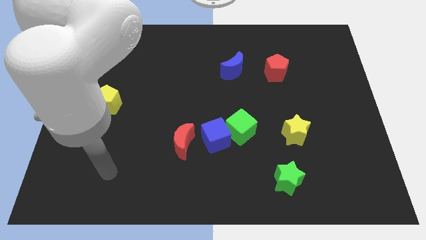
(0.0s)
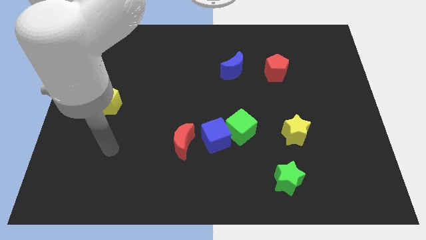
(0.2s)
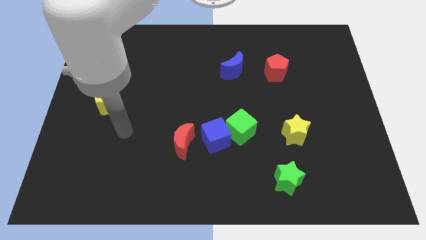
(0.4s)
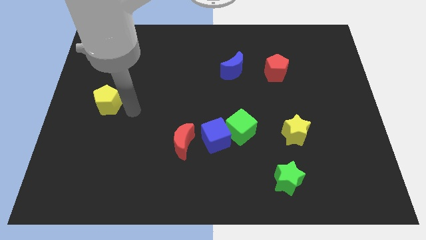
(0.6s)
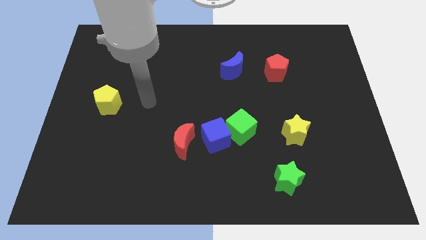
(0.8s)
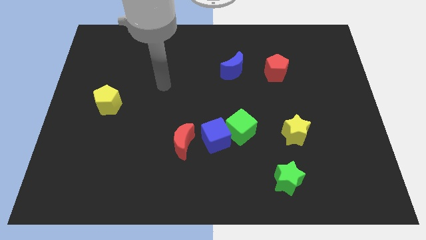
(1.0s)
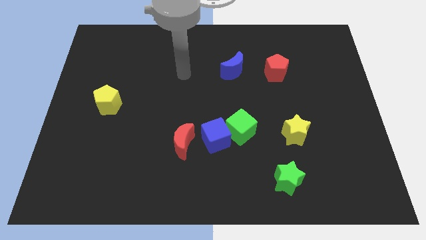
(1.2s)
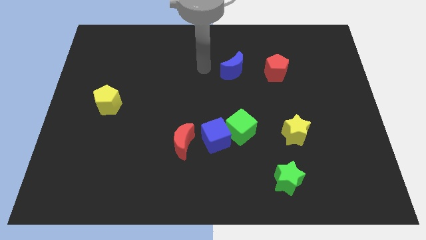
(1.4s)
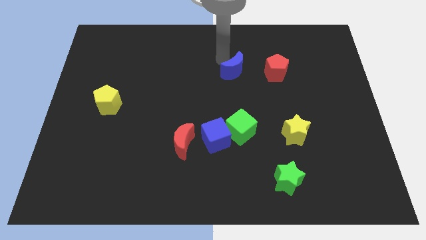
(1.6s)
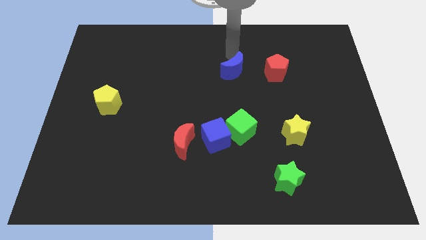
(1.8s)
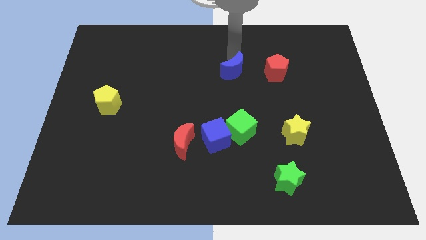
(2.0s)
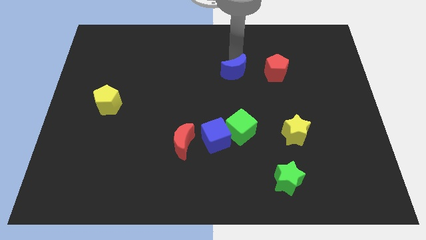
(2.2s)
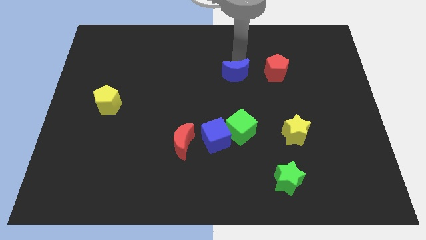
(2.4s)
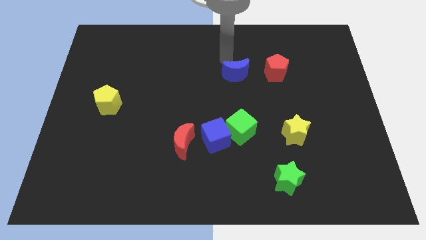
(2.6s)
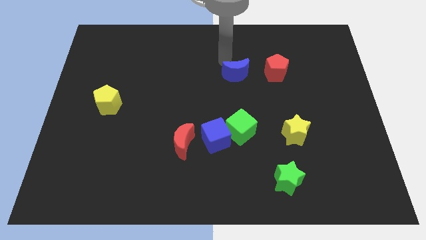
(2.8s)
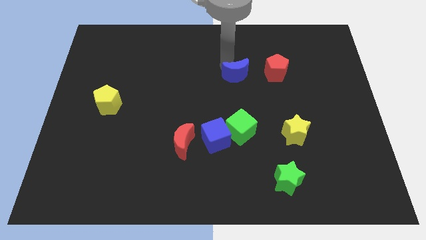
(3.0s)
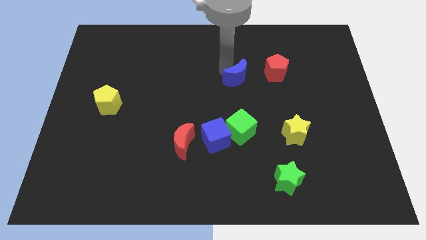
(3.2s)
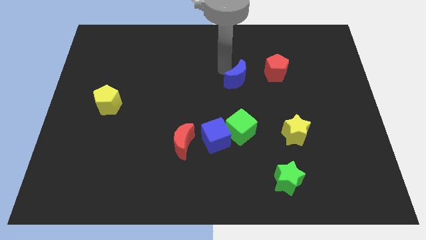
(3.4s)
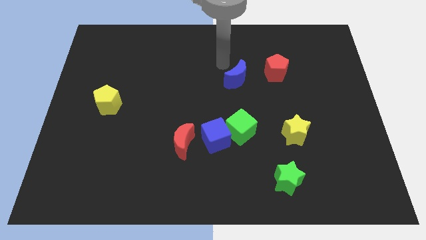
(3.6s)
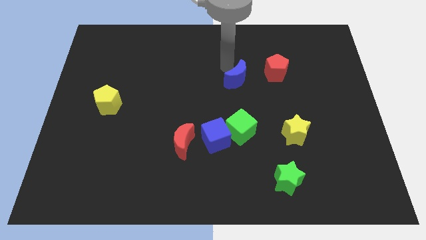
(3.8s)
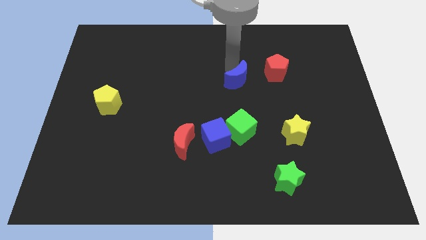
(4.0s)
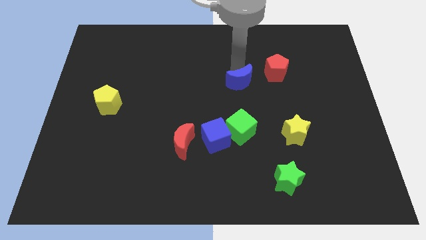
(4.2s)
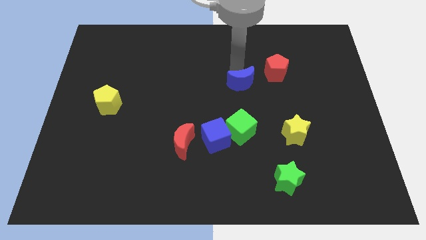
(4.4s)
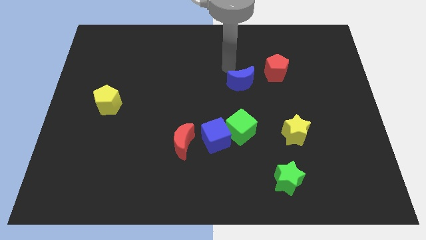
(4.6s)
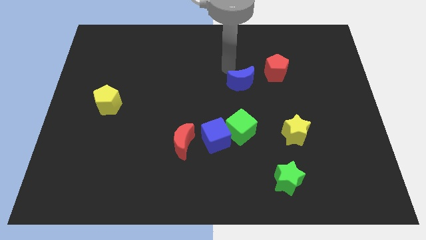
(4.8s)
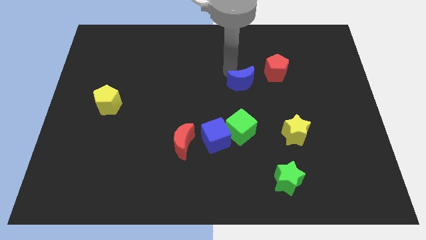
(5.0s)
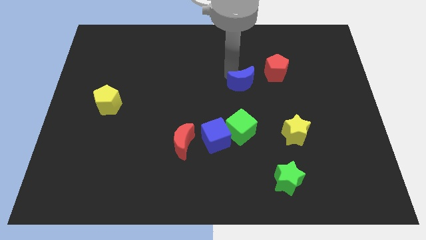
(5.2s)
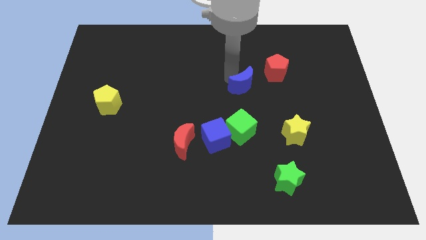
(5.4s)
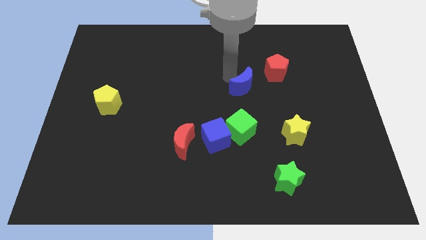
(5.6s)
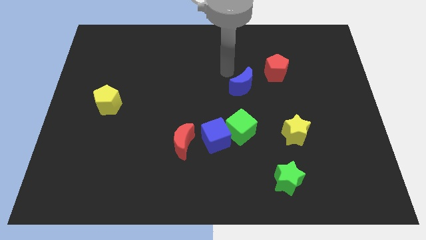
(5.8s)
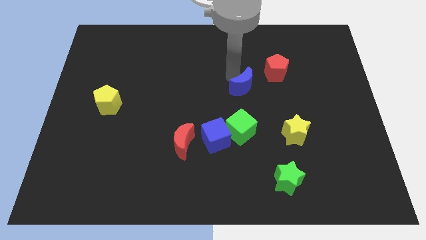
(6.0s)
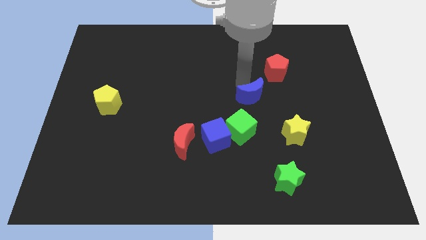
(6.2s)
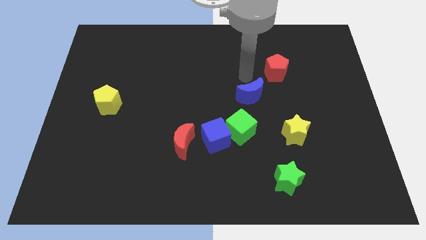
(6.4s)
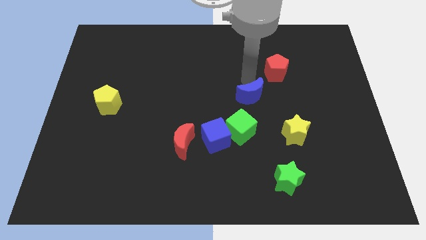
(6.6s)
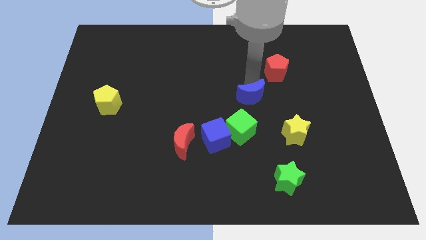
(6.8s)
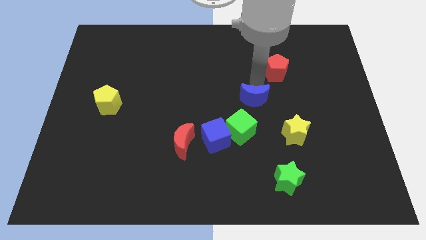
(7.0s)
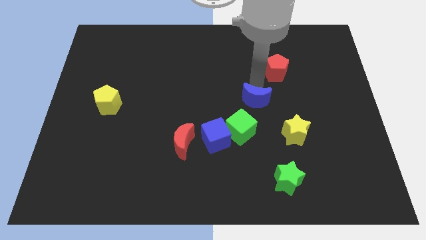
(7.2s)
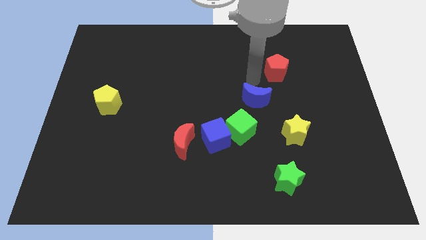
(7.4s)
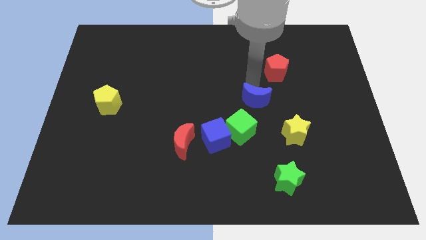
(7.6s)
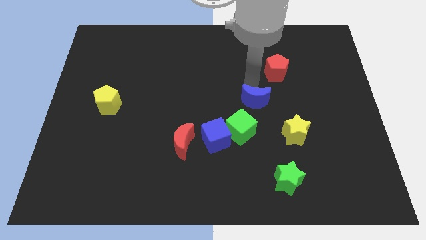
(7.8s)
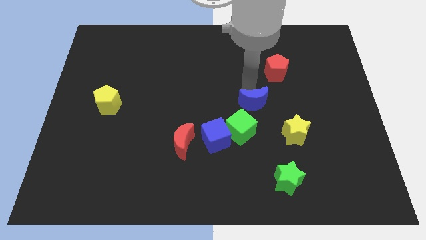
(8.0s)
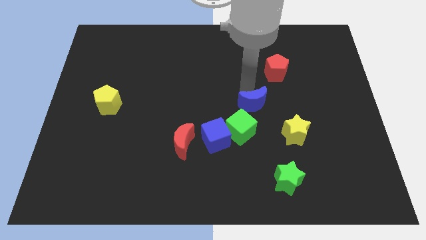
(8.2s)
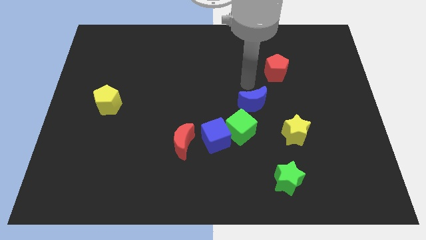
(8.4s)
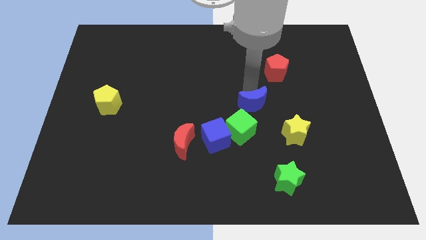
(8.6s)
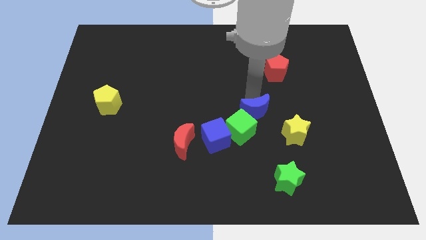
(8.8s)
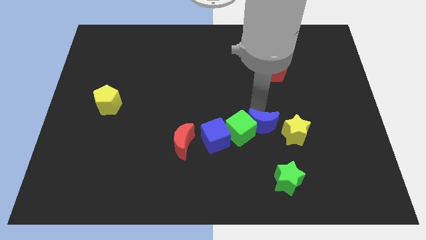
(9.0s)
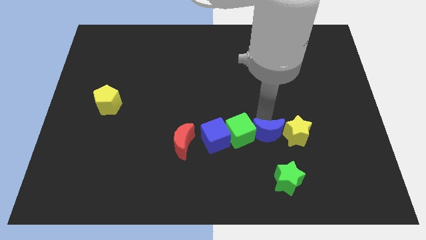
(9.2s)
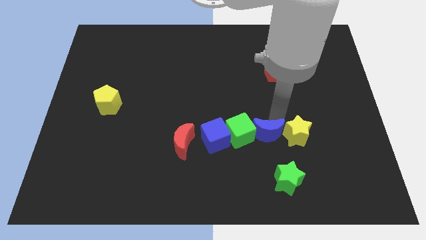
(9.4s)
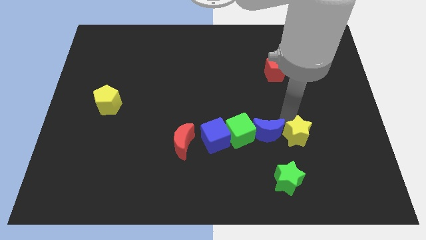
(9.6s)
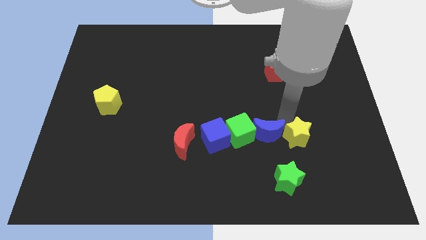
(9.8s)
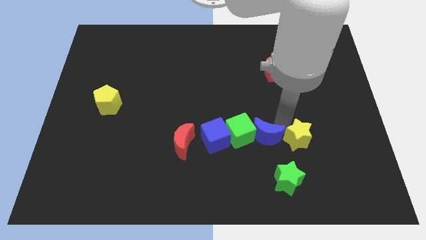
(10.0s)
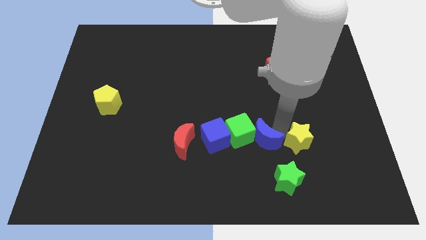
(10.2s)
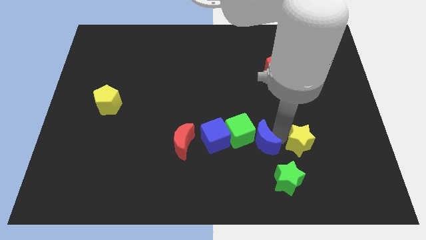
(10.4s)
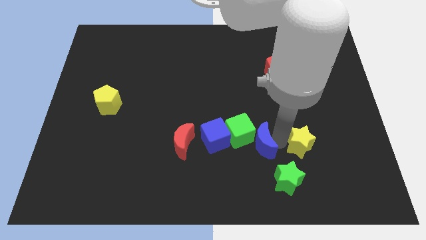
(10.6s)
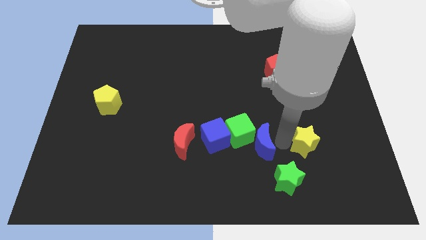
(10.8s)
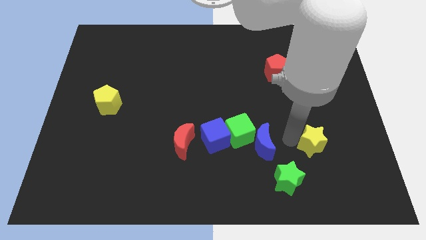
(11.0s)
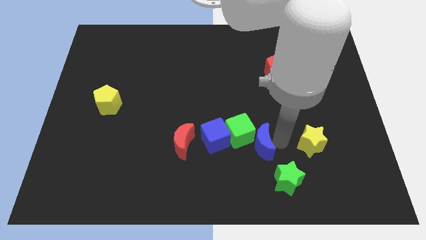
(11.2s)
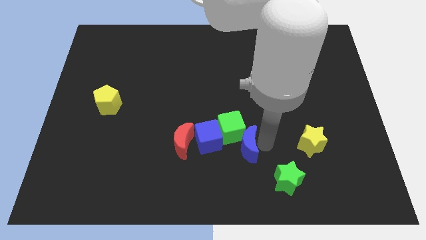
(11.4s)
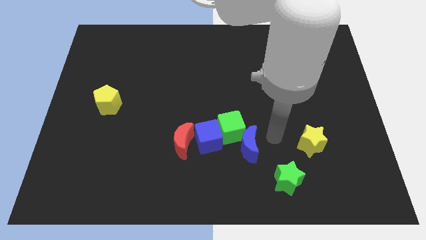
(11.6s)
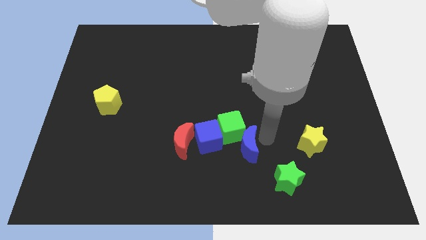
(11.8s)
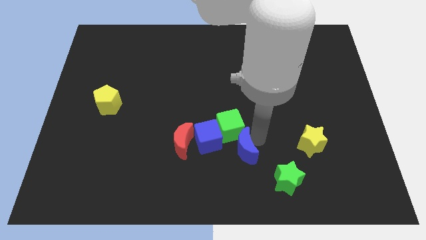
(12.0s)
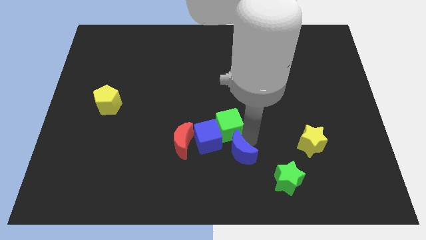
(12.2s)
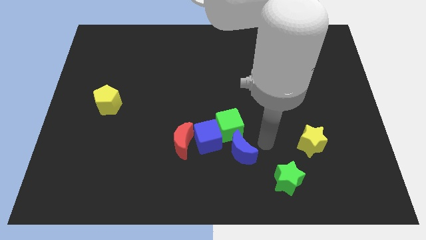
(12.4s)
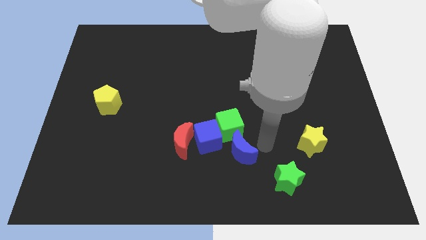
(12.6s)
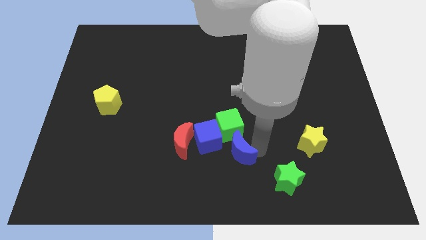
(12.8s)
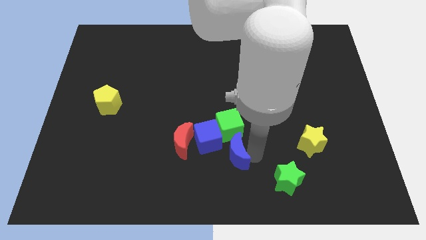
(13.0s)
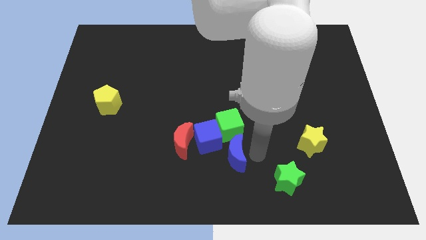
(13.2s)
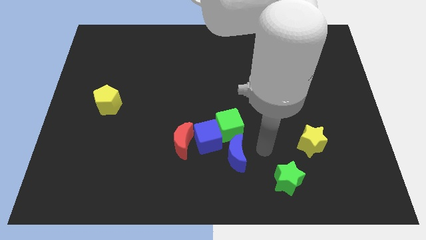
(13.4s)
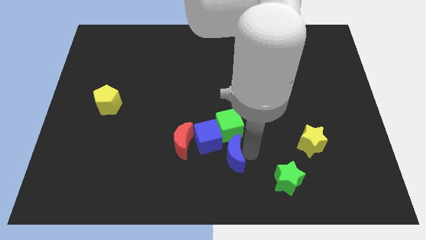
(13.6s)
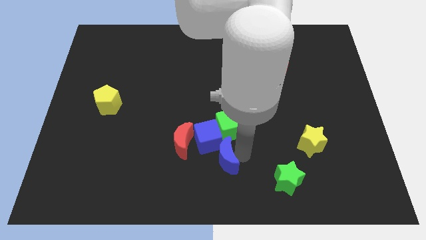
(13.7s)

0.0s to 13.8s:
push the blue moon to the bottom right of the red moon

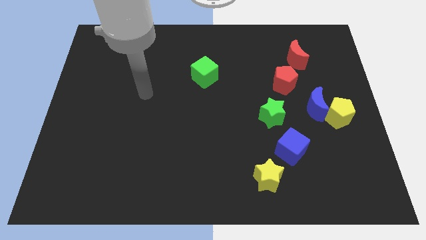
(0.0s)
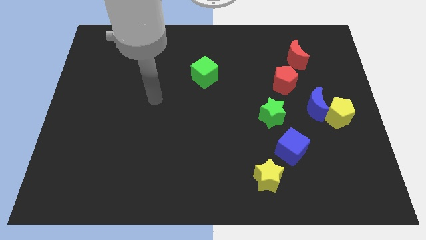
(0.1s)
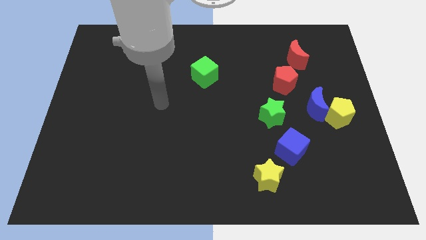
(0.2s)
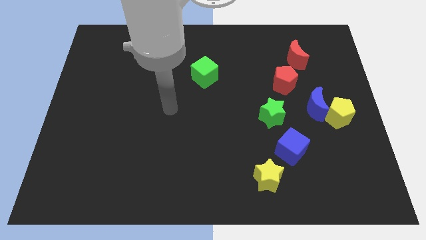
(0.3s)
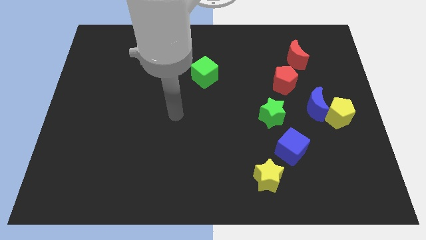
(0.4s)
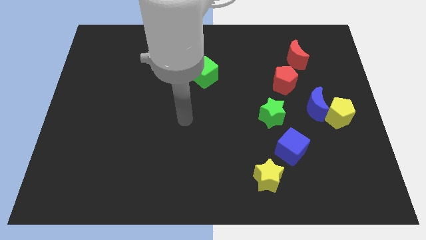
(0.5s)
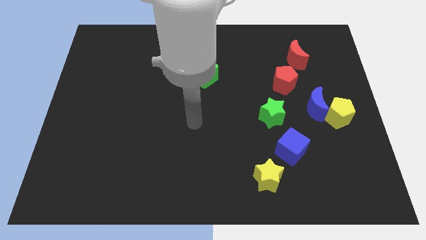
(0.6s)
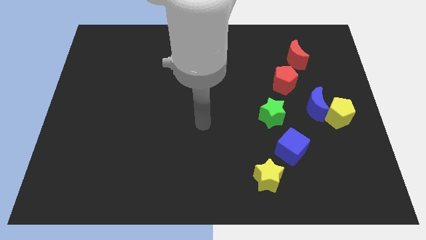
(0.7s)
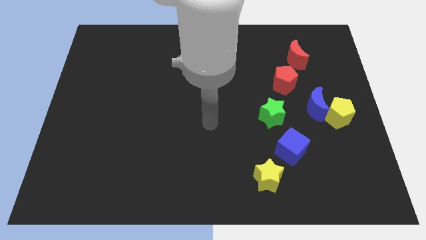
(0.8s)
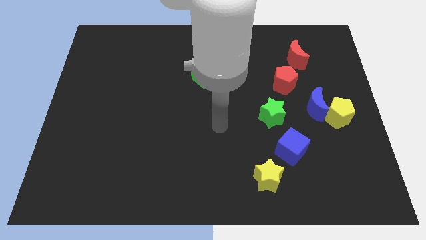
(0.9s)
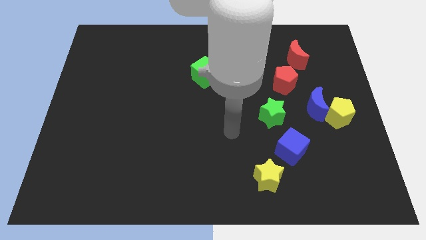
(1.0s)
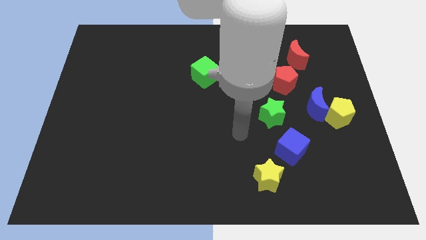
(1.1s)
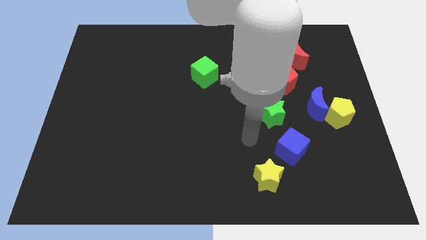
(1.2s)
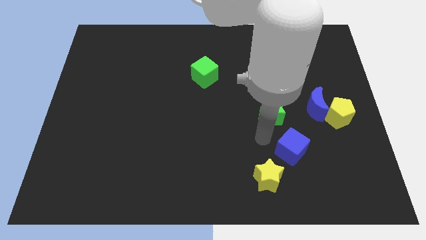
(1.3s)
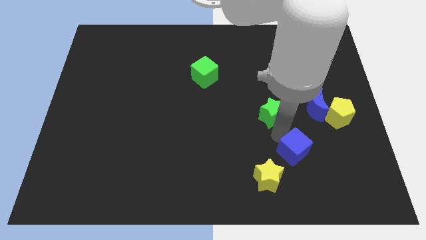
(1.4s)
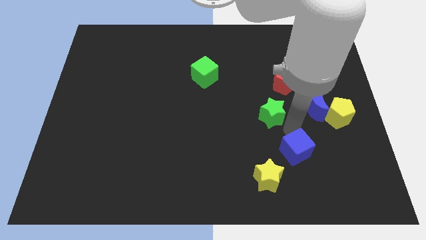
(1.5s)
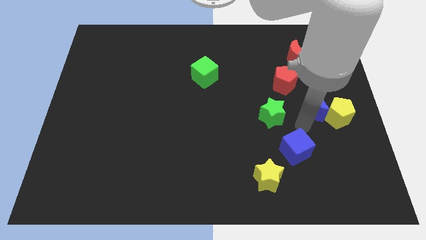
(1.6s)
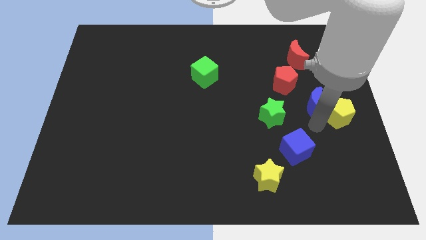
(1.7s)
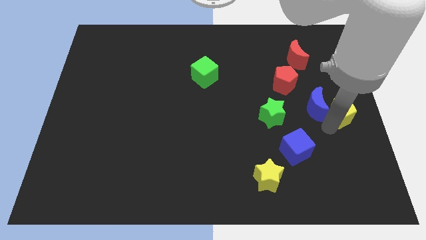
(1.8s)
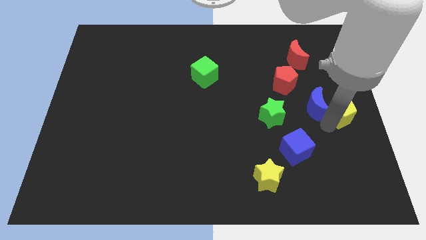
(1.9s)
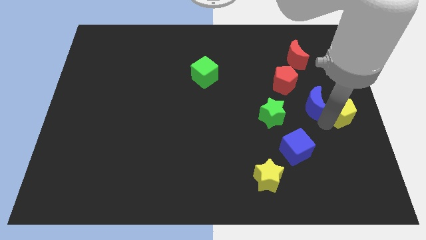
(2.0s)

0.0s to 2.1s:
put the blue moon to the bottom of the red moon
